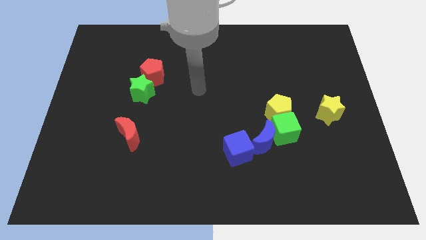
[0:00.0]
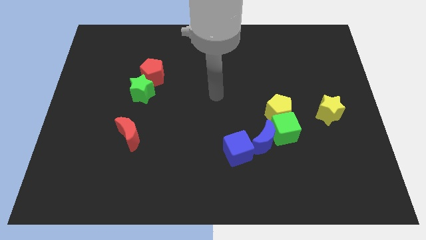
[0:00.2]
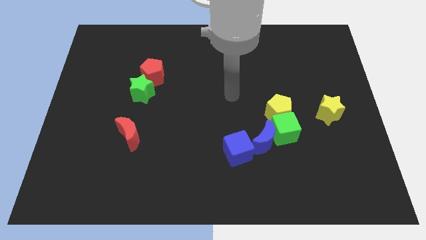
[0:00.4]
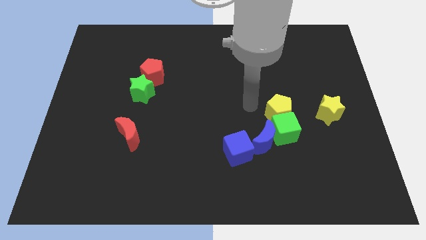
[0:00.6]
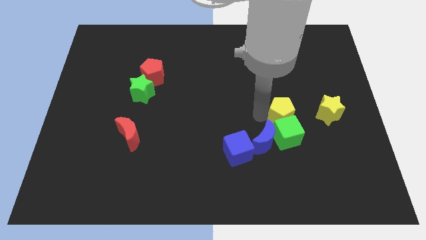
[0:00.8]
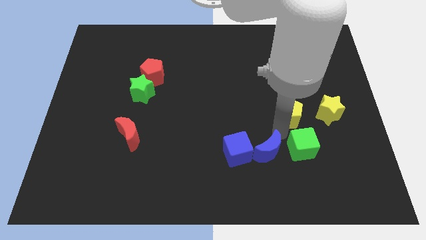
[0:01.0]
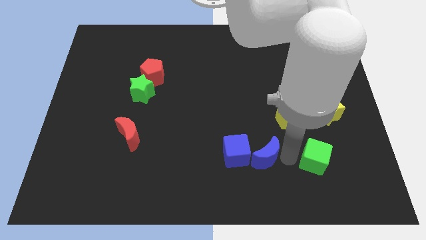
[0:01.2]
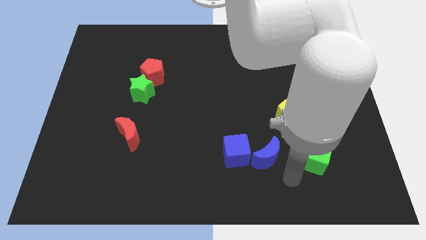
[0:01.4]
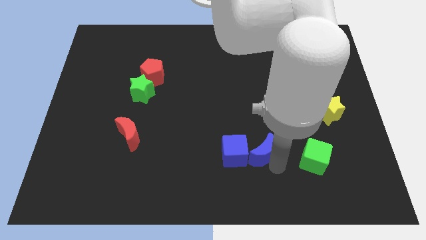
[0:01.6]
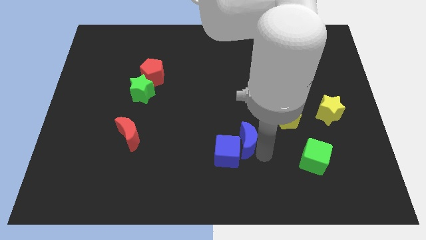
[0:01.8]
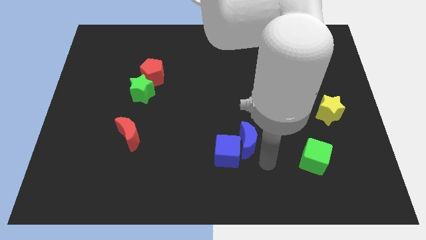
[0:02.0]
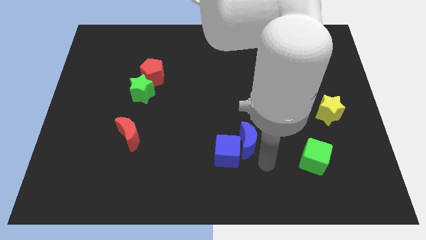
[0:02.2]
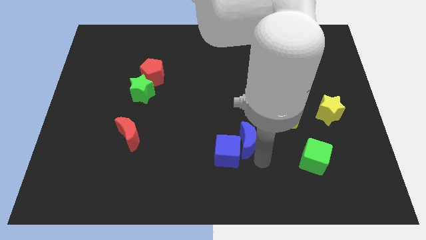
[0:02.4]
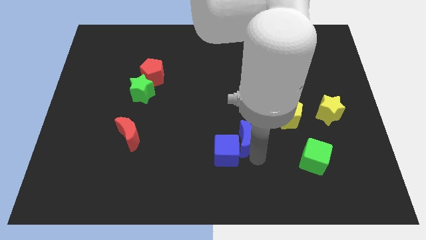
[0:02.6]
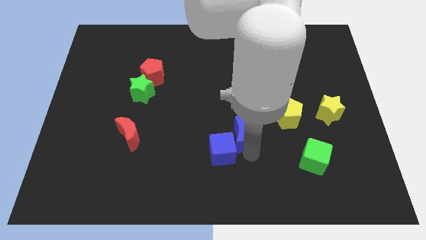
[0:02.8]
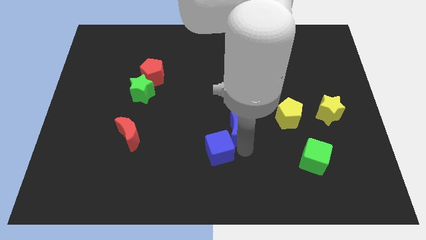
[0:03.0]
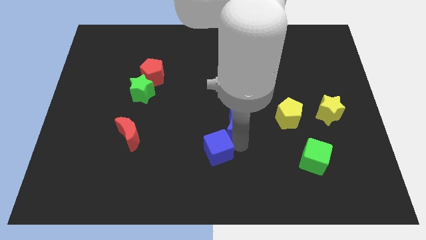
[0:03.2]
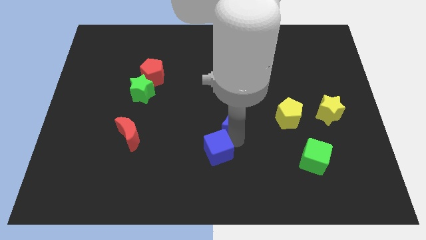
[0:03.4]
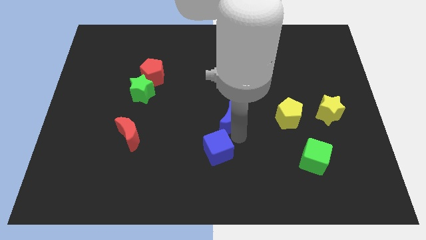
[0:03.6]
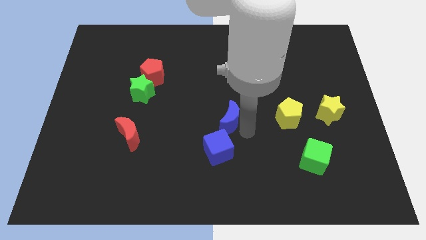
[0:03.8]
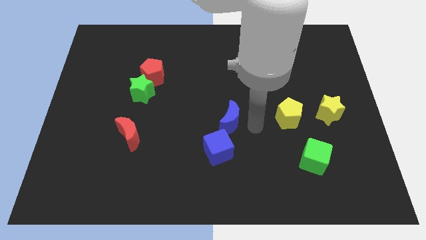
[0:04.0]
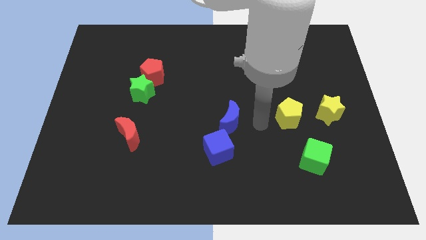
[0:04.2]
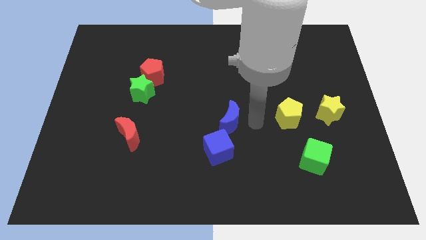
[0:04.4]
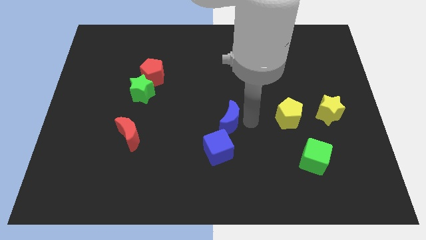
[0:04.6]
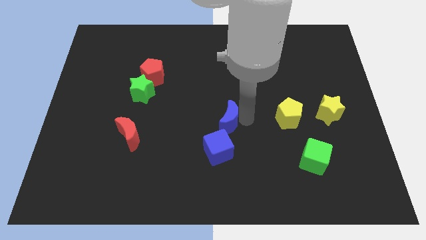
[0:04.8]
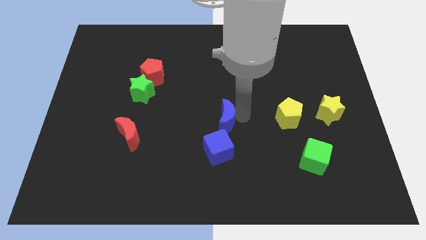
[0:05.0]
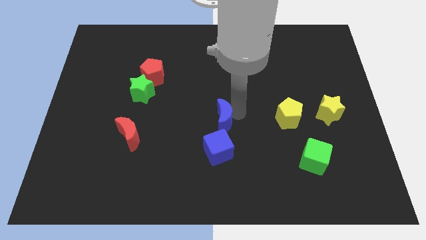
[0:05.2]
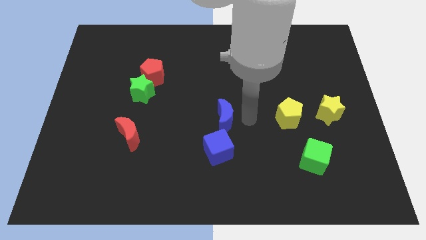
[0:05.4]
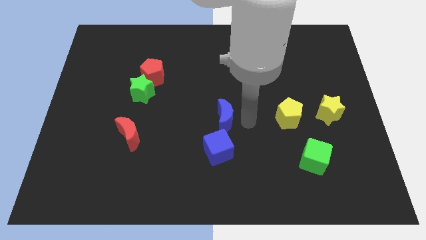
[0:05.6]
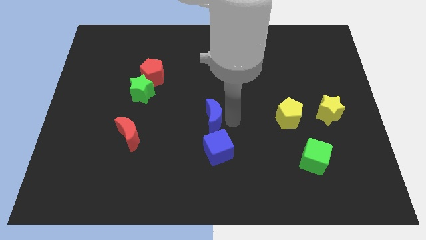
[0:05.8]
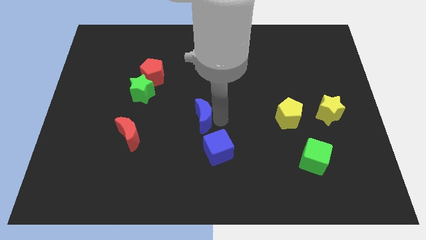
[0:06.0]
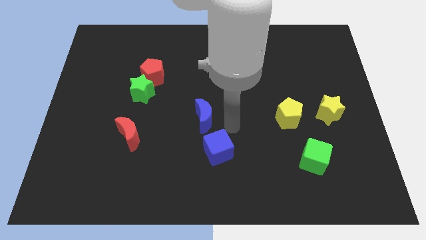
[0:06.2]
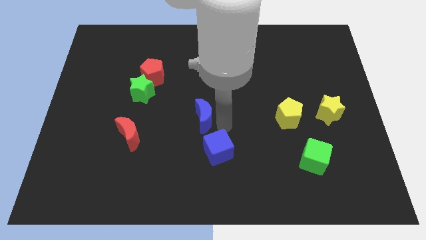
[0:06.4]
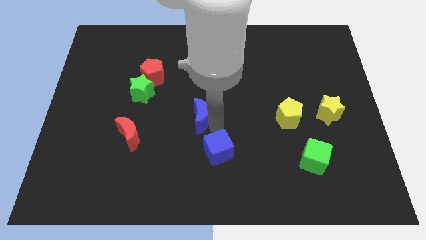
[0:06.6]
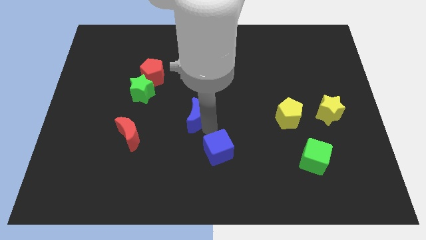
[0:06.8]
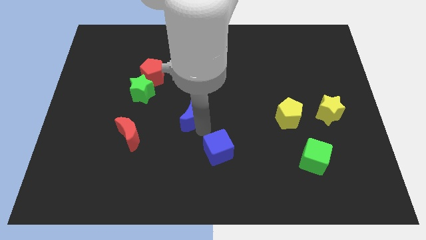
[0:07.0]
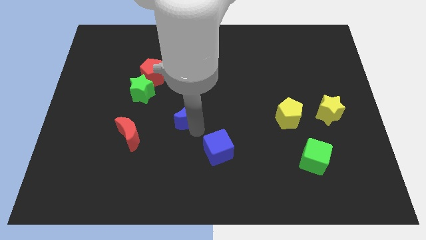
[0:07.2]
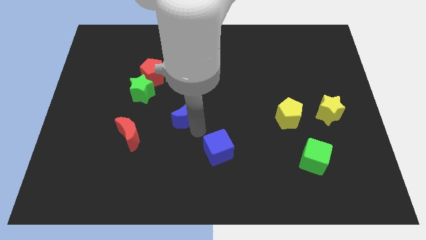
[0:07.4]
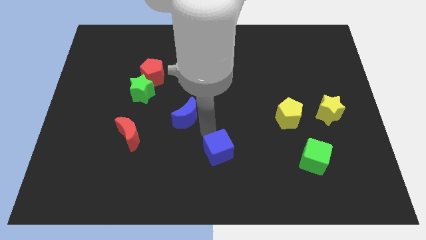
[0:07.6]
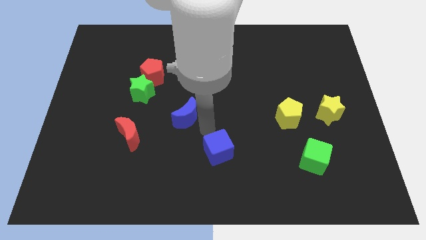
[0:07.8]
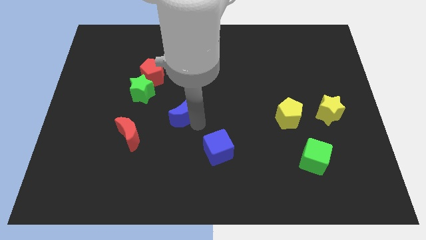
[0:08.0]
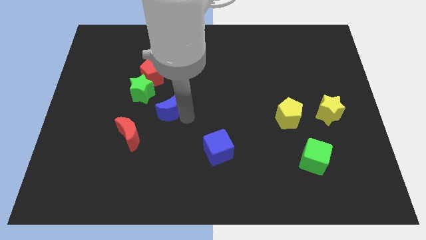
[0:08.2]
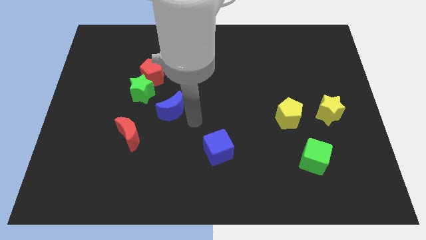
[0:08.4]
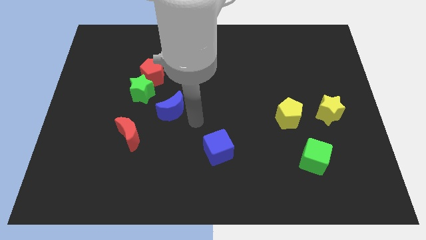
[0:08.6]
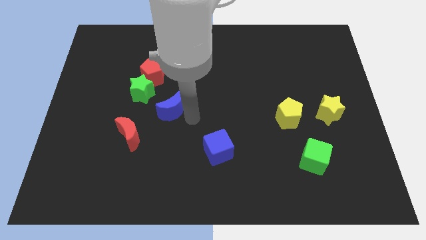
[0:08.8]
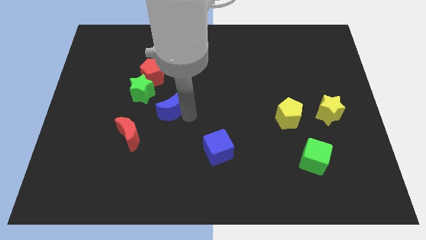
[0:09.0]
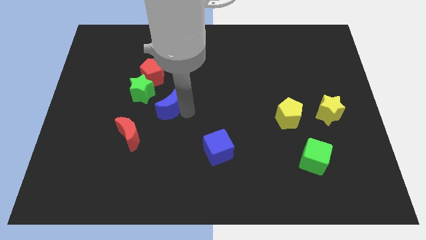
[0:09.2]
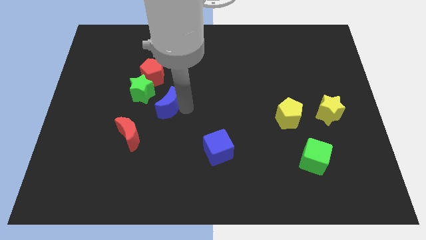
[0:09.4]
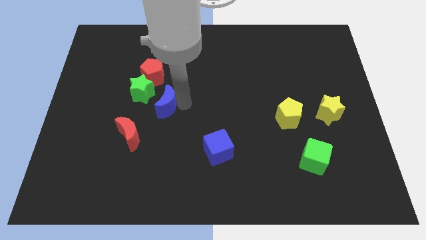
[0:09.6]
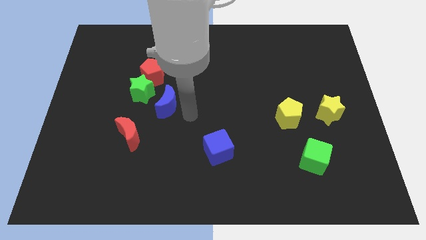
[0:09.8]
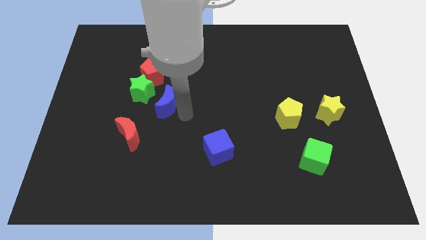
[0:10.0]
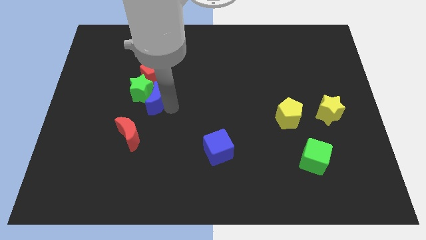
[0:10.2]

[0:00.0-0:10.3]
push the blue moon towards the green star

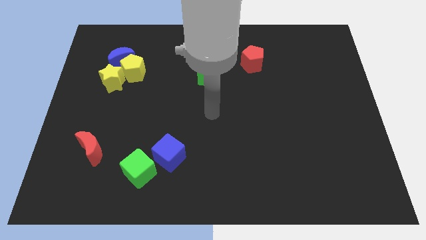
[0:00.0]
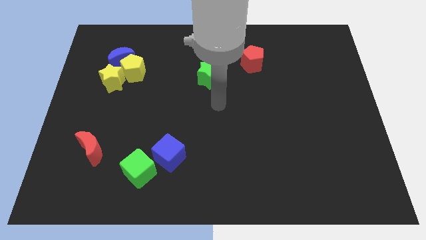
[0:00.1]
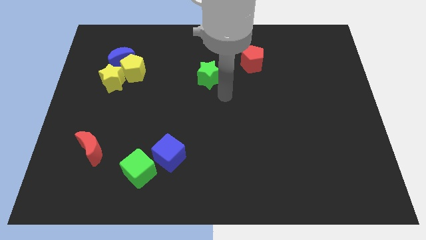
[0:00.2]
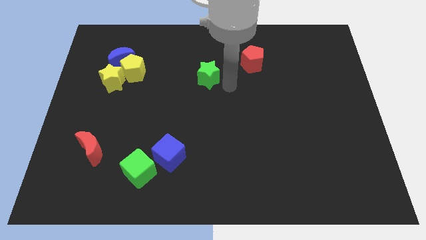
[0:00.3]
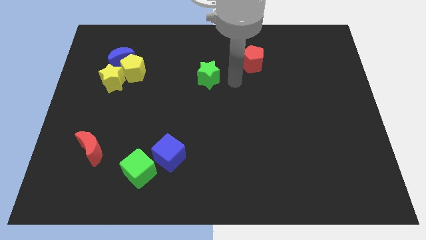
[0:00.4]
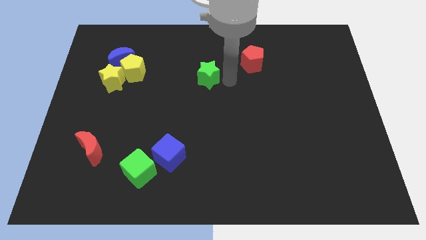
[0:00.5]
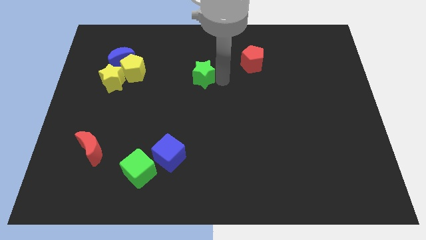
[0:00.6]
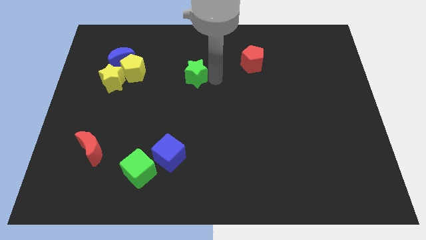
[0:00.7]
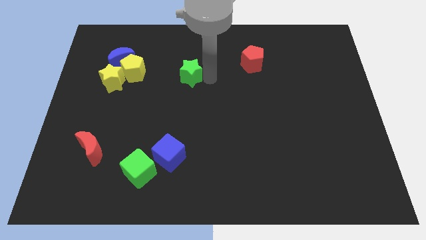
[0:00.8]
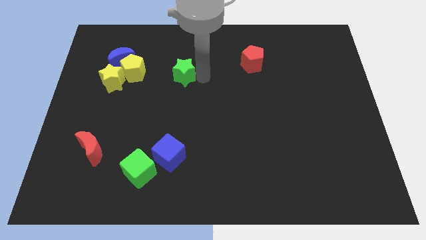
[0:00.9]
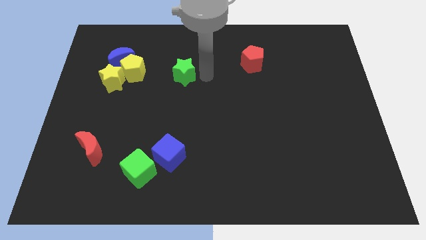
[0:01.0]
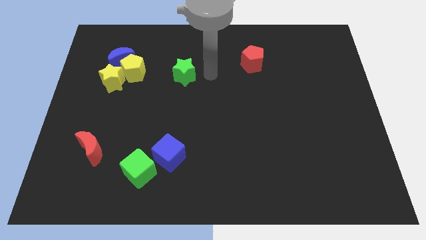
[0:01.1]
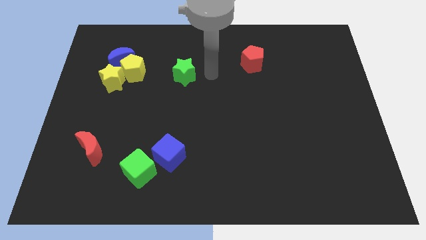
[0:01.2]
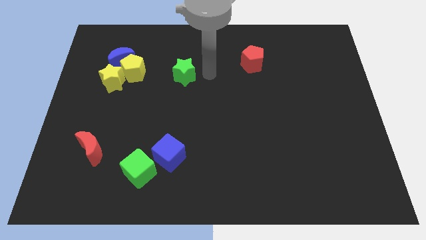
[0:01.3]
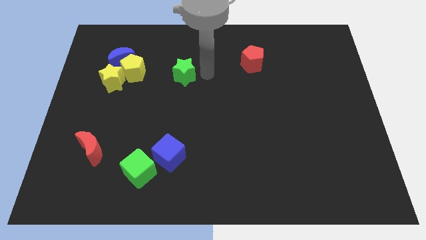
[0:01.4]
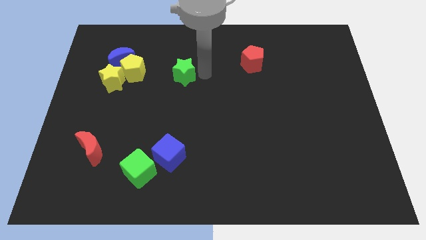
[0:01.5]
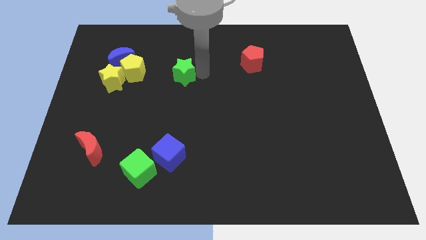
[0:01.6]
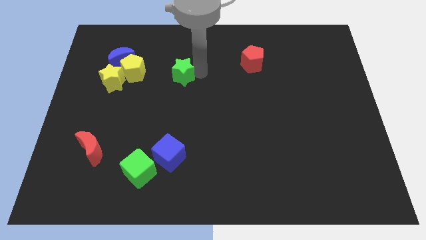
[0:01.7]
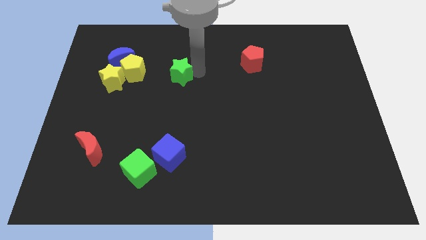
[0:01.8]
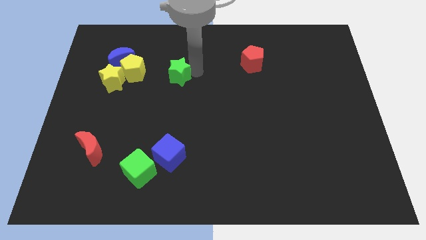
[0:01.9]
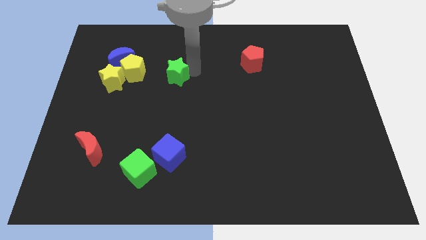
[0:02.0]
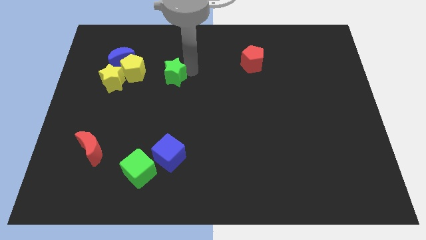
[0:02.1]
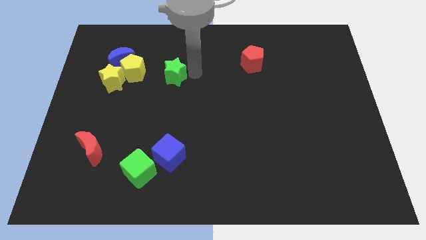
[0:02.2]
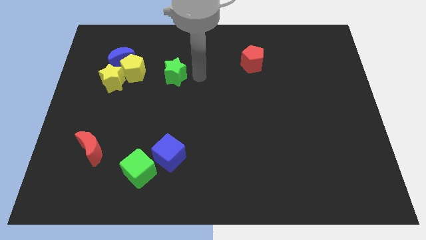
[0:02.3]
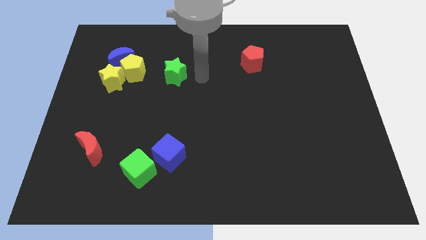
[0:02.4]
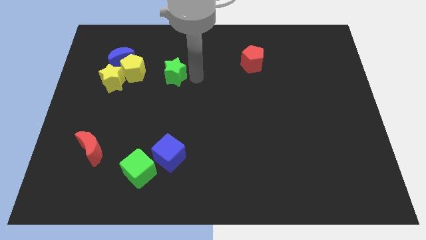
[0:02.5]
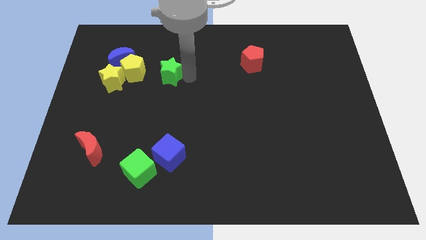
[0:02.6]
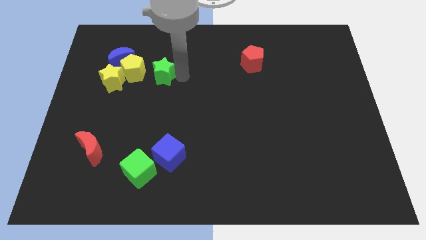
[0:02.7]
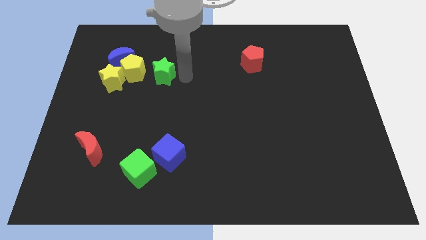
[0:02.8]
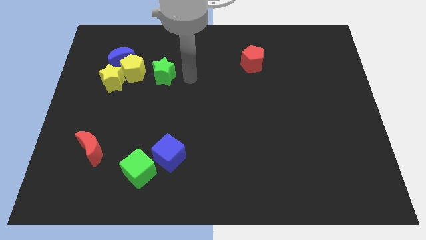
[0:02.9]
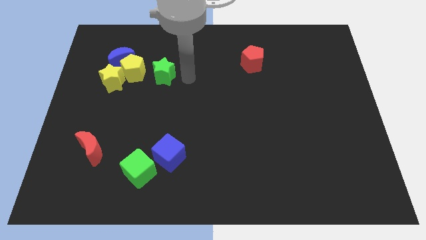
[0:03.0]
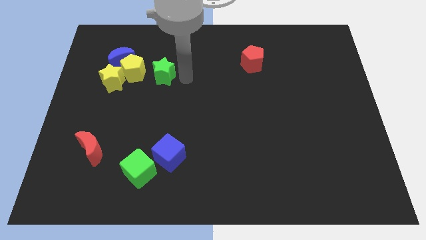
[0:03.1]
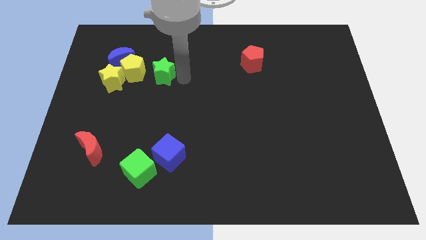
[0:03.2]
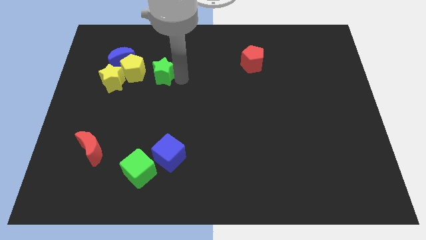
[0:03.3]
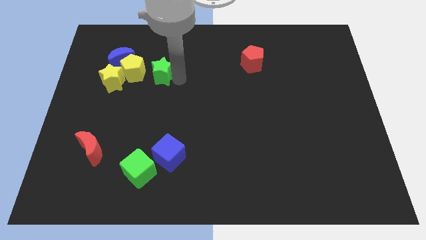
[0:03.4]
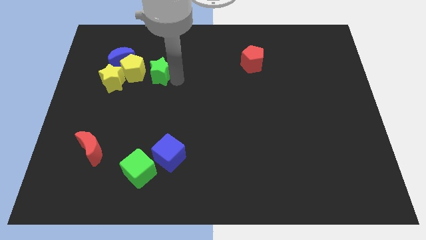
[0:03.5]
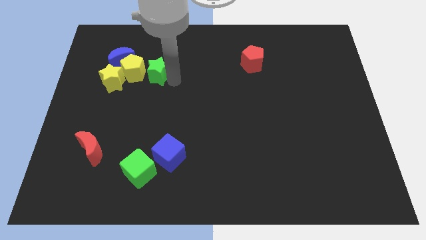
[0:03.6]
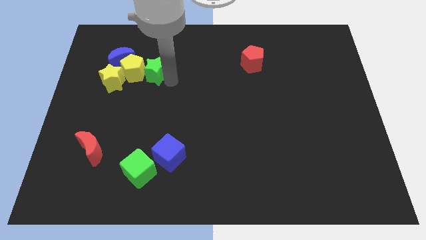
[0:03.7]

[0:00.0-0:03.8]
push the green star to the yellow pentagon
